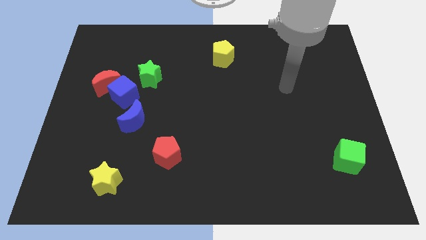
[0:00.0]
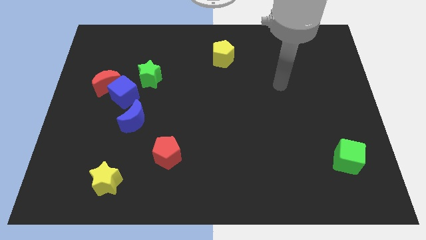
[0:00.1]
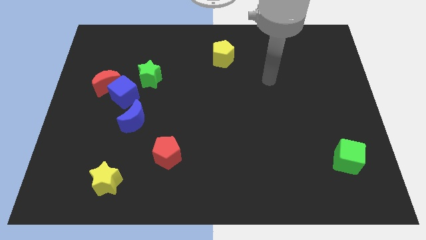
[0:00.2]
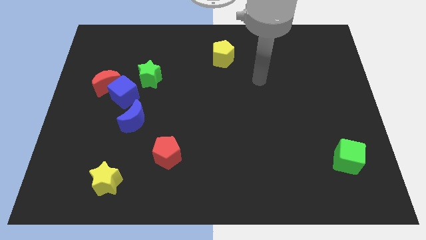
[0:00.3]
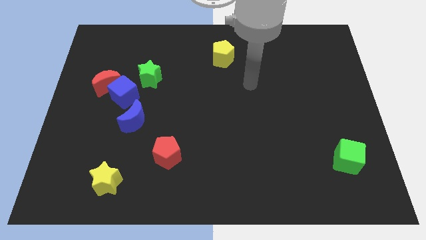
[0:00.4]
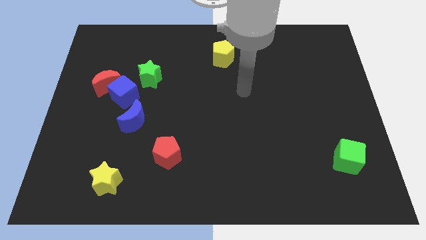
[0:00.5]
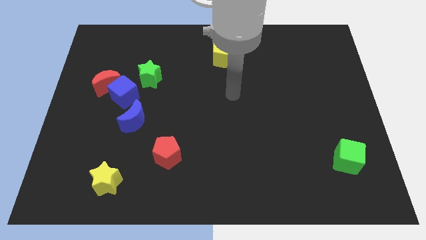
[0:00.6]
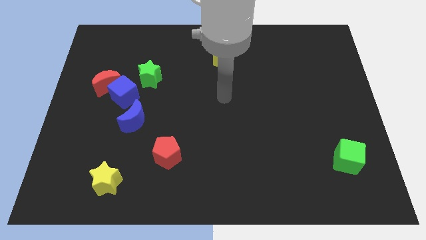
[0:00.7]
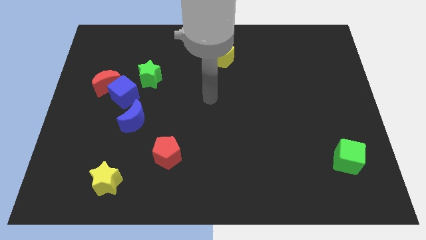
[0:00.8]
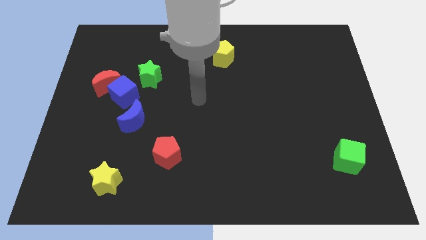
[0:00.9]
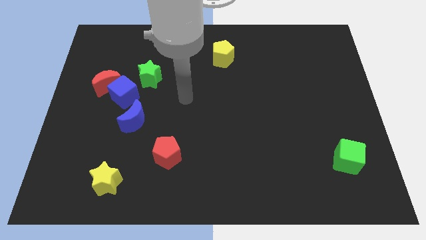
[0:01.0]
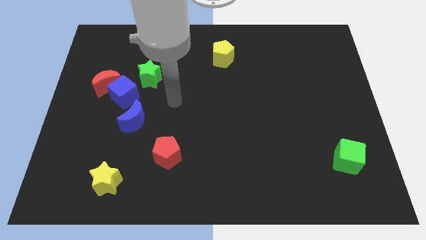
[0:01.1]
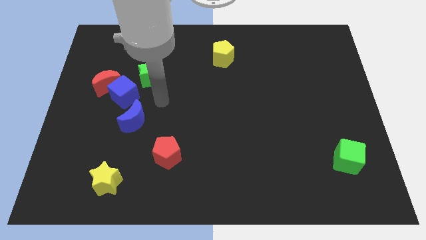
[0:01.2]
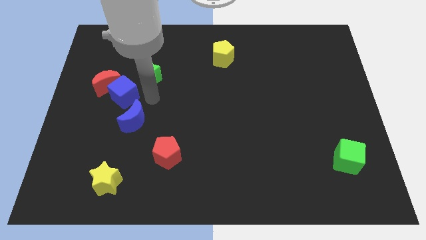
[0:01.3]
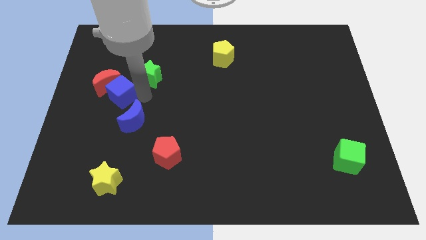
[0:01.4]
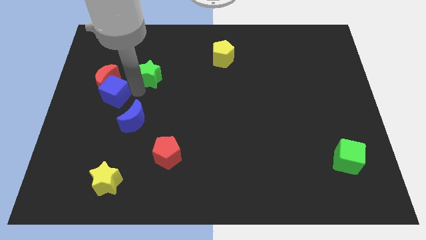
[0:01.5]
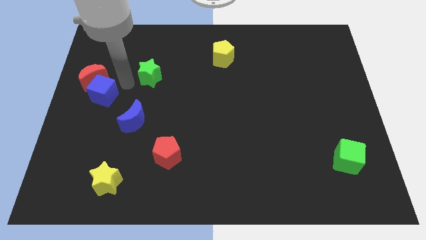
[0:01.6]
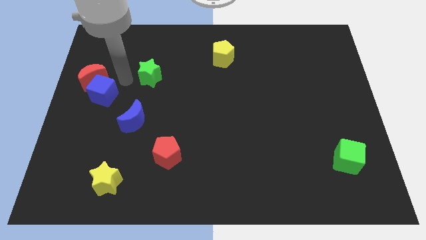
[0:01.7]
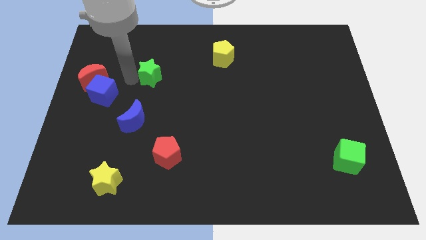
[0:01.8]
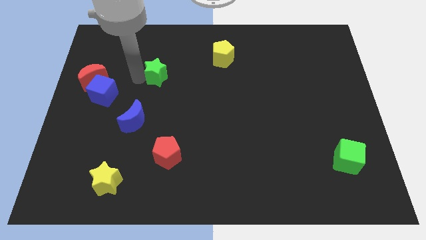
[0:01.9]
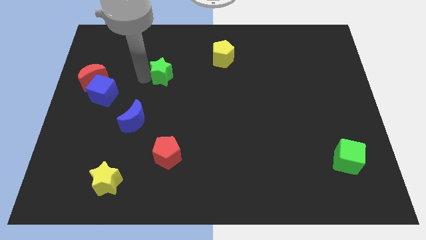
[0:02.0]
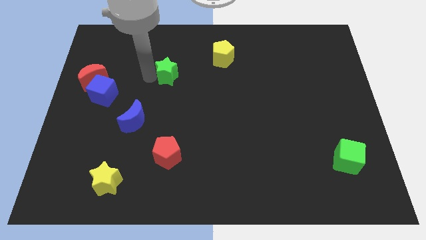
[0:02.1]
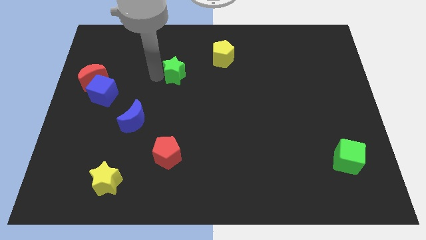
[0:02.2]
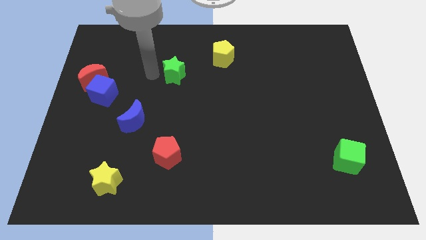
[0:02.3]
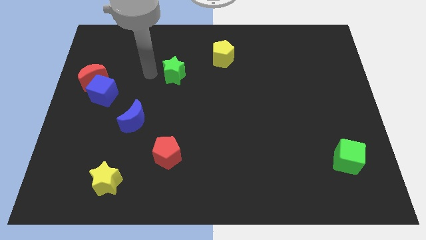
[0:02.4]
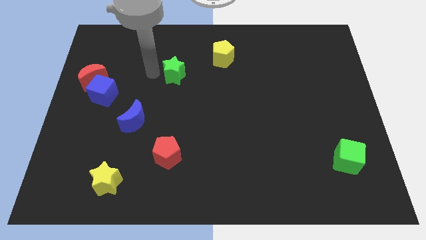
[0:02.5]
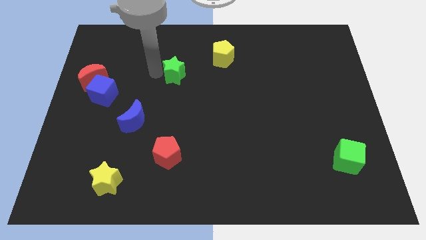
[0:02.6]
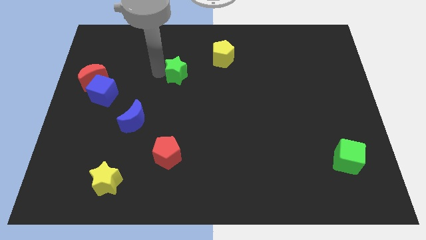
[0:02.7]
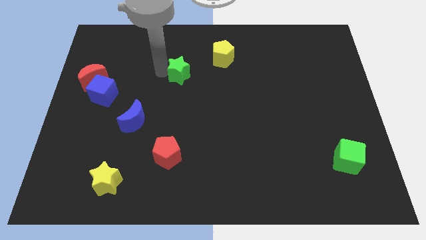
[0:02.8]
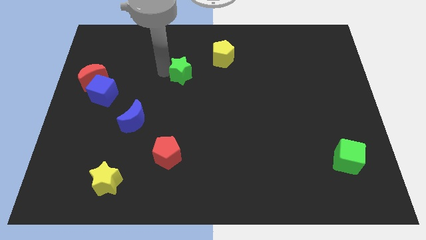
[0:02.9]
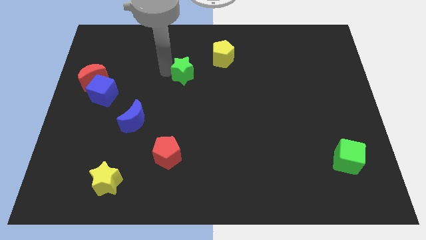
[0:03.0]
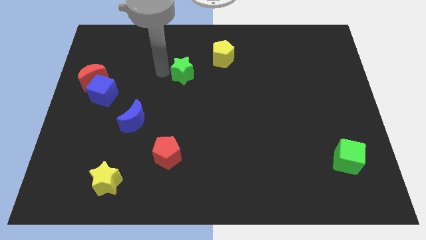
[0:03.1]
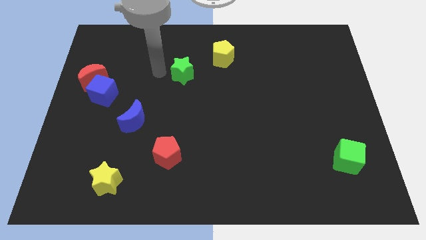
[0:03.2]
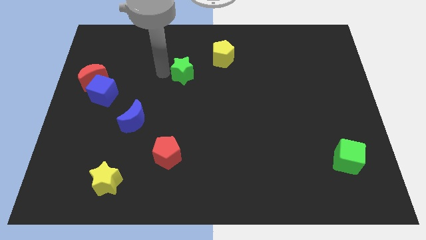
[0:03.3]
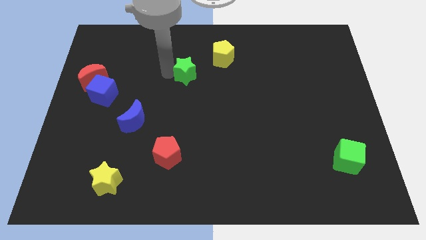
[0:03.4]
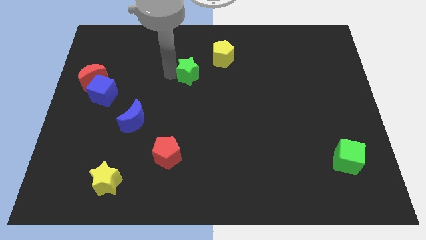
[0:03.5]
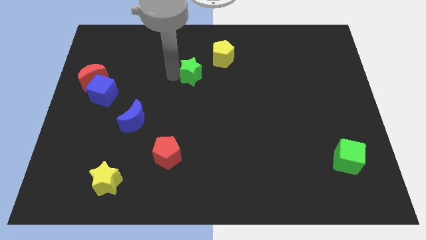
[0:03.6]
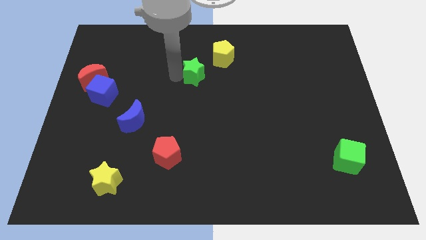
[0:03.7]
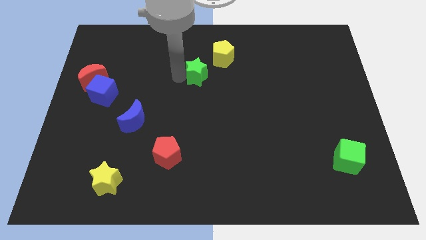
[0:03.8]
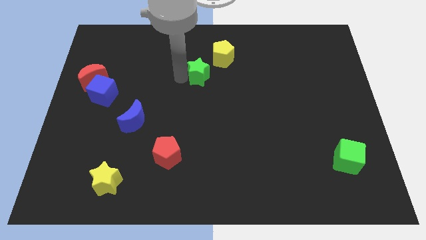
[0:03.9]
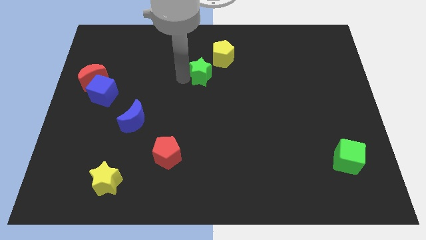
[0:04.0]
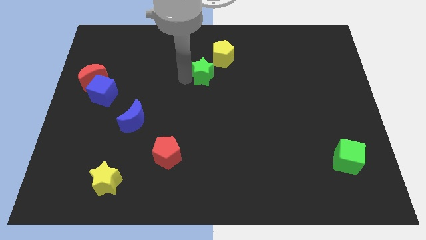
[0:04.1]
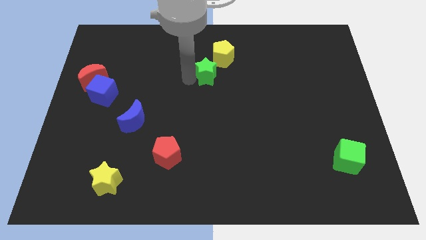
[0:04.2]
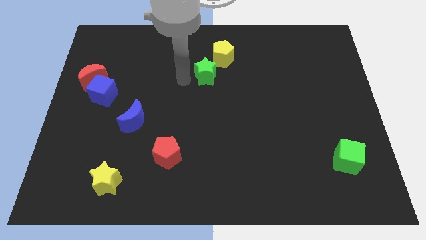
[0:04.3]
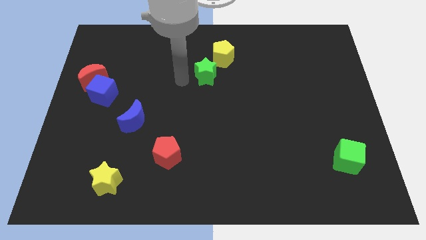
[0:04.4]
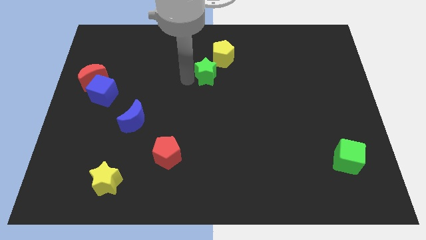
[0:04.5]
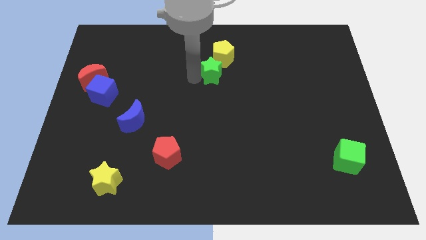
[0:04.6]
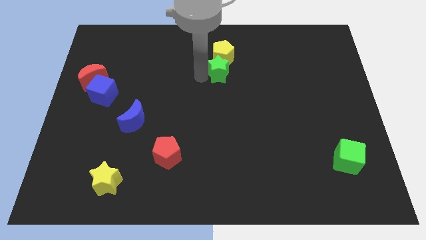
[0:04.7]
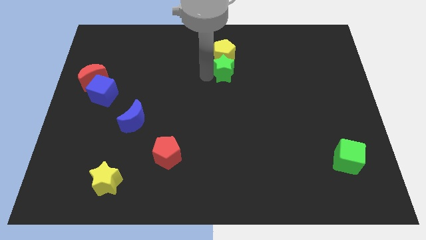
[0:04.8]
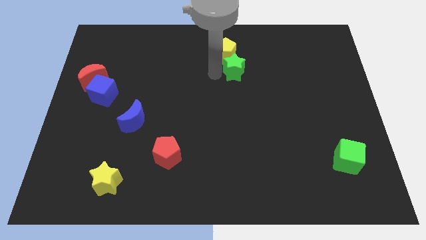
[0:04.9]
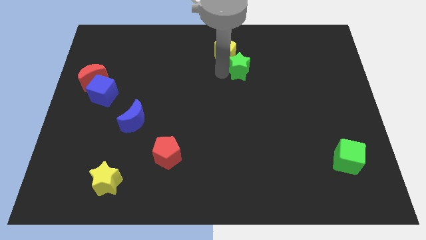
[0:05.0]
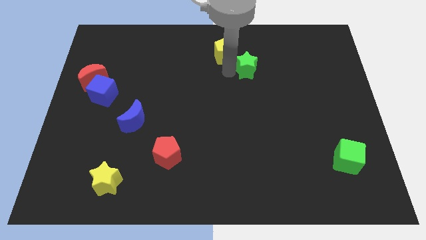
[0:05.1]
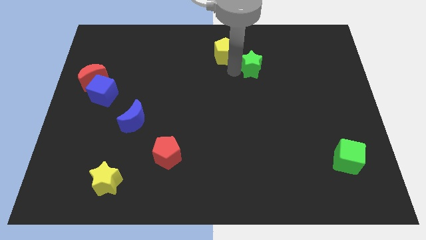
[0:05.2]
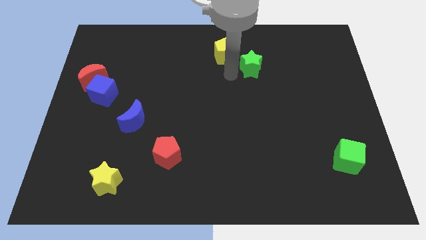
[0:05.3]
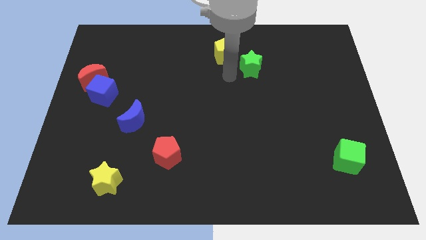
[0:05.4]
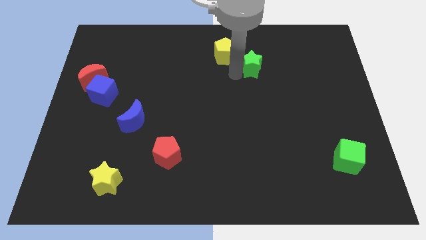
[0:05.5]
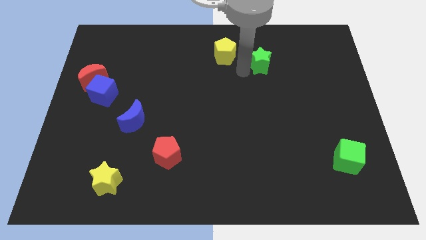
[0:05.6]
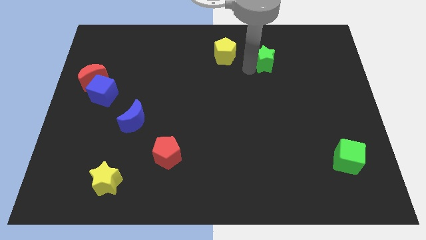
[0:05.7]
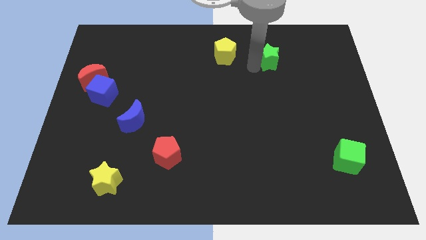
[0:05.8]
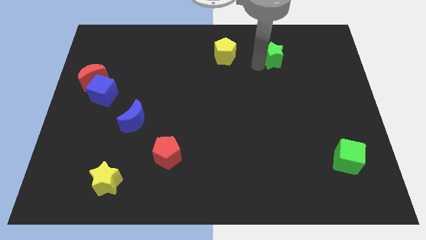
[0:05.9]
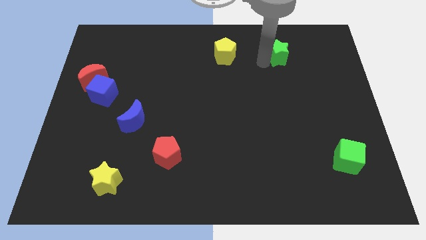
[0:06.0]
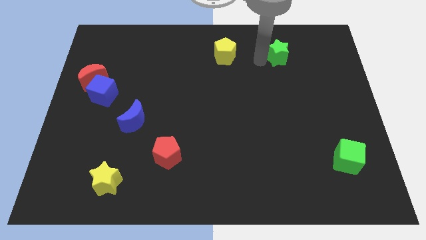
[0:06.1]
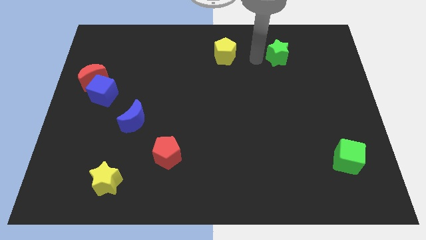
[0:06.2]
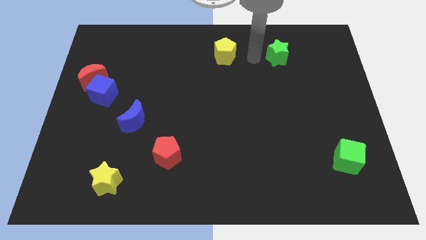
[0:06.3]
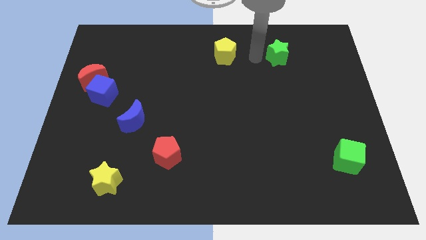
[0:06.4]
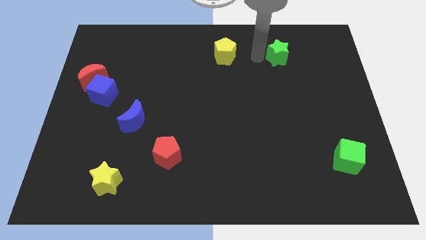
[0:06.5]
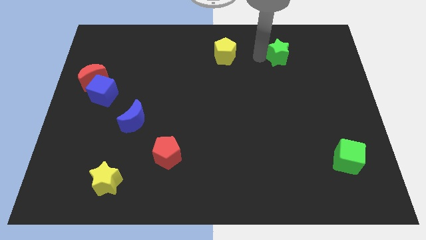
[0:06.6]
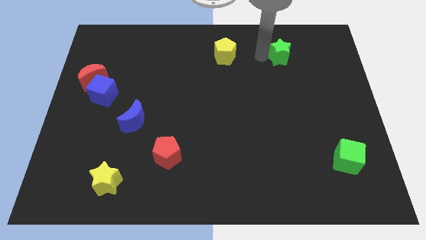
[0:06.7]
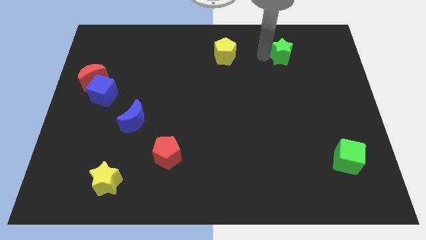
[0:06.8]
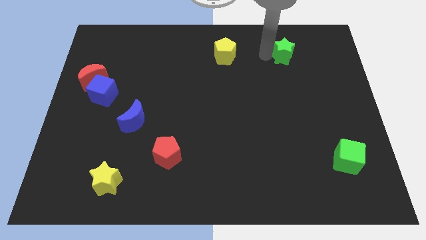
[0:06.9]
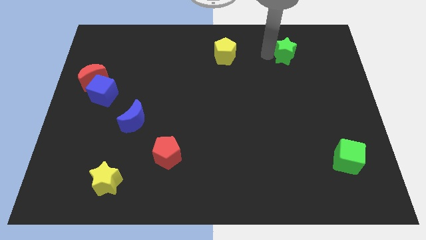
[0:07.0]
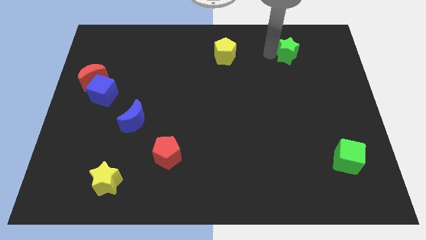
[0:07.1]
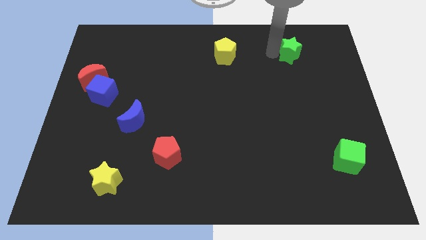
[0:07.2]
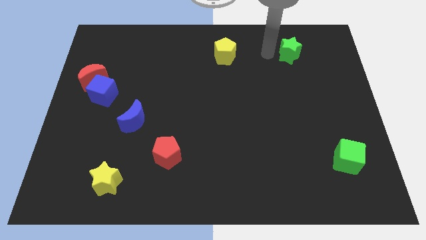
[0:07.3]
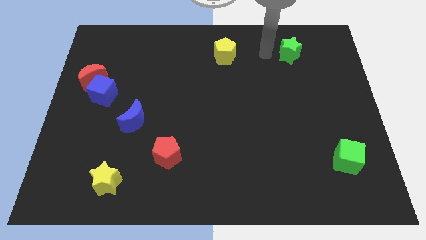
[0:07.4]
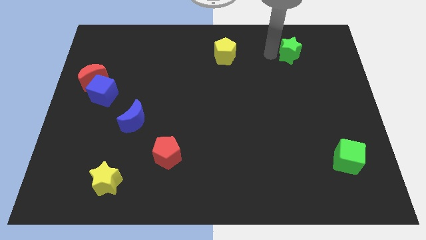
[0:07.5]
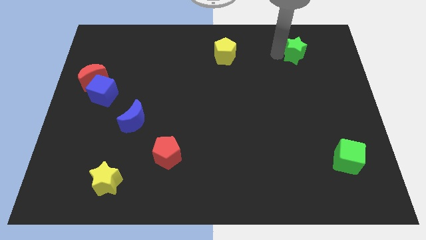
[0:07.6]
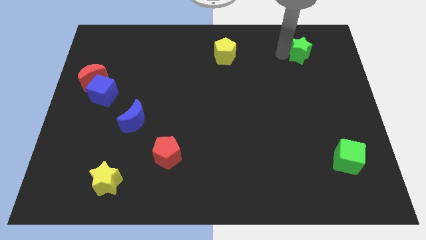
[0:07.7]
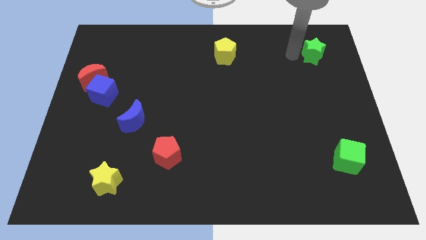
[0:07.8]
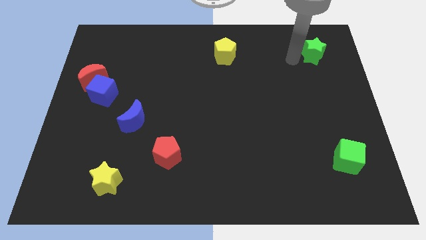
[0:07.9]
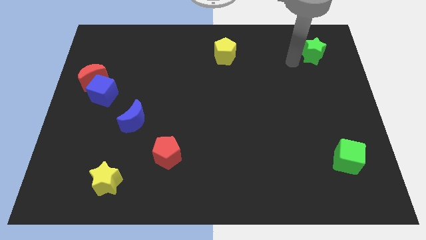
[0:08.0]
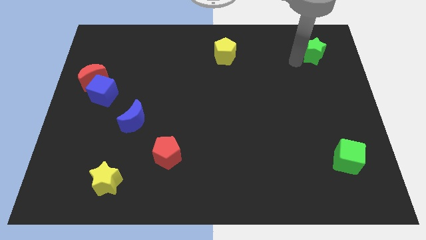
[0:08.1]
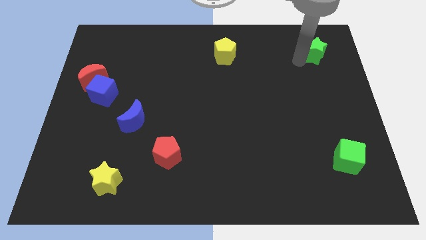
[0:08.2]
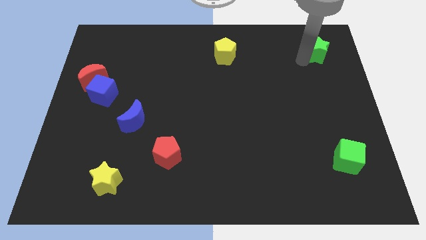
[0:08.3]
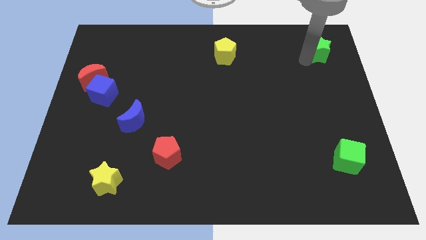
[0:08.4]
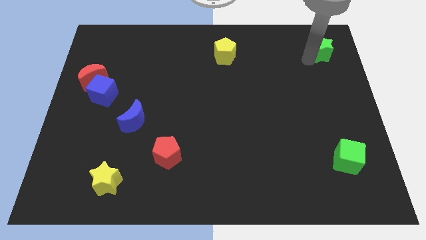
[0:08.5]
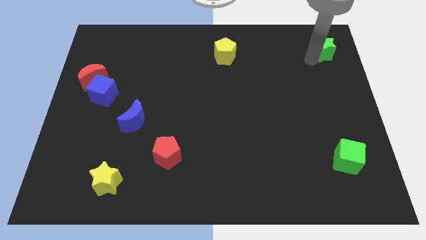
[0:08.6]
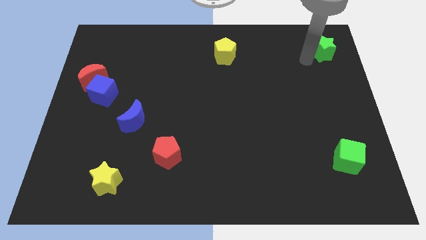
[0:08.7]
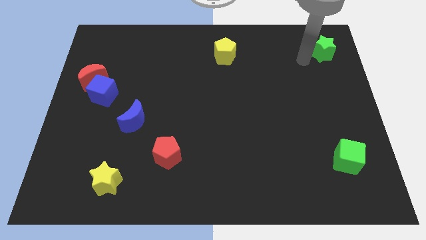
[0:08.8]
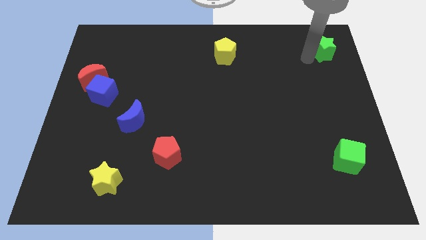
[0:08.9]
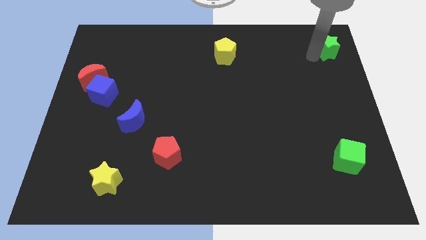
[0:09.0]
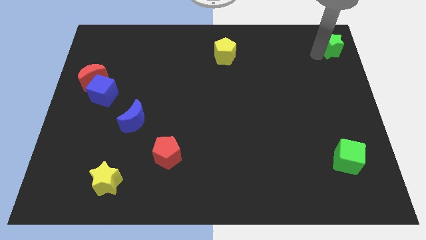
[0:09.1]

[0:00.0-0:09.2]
put the green star to the upper right corner
